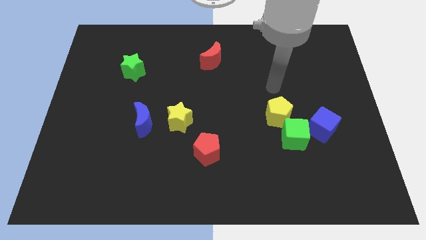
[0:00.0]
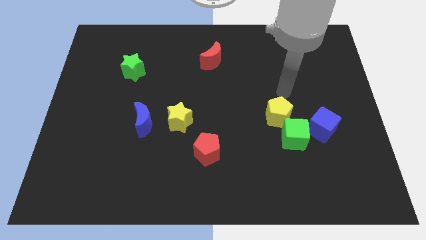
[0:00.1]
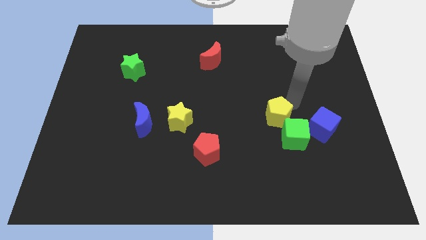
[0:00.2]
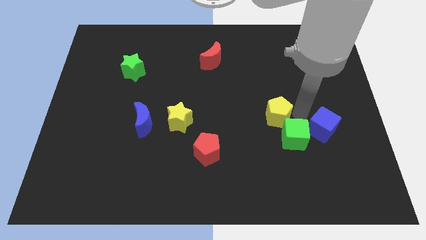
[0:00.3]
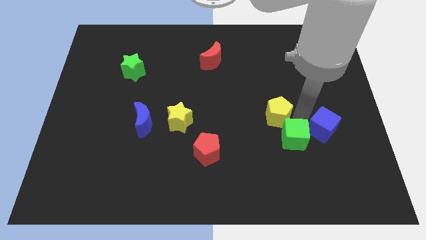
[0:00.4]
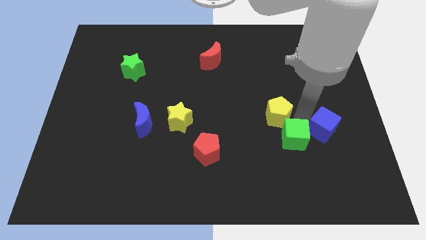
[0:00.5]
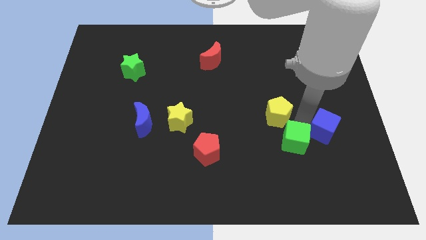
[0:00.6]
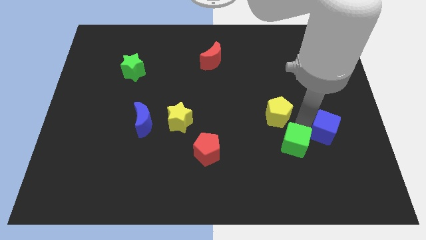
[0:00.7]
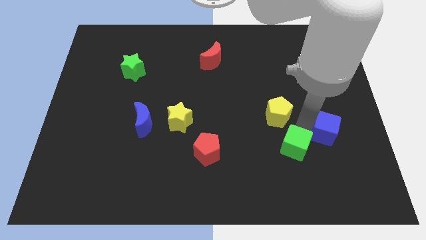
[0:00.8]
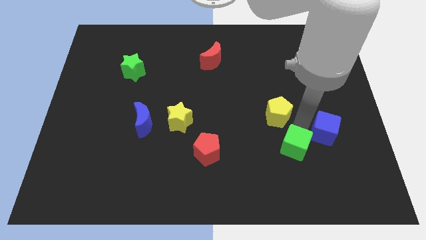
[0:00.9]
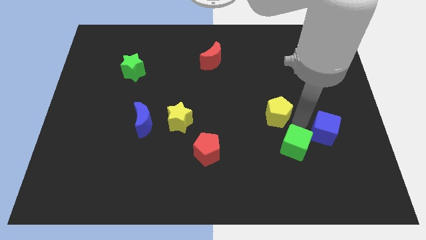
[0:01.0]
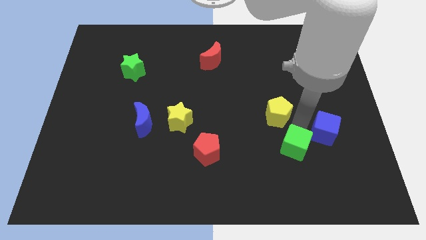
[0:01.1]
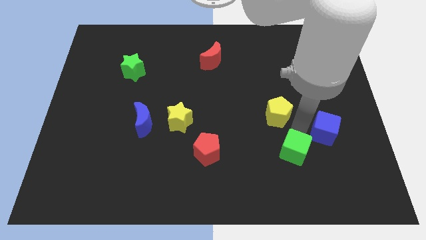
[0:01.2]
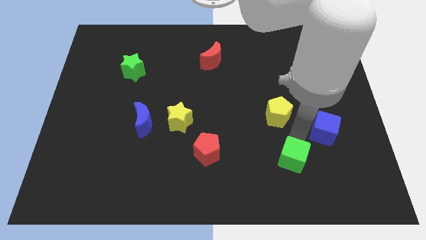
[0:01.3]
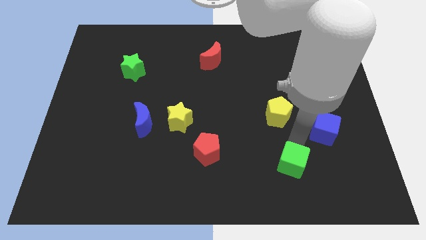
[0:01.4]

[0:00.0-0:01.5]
move the green cube away from the yellow pentagon and blue cube

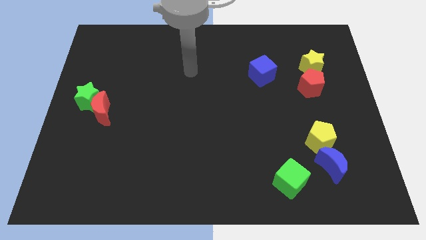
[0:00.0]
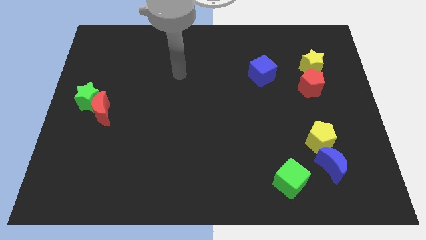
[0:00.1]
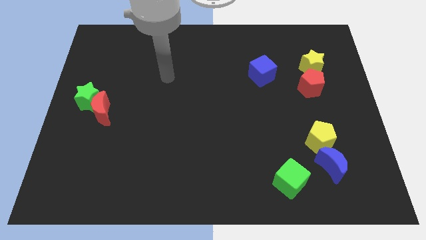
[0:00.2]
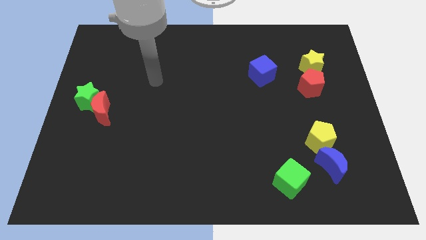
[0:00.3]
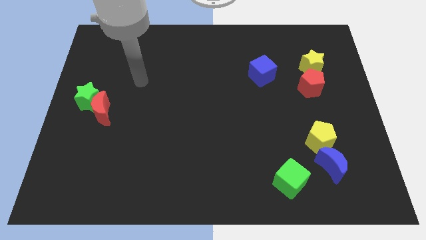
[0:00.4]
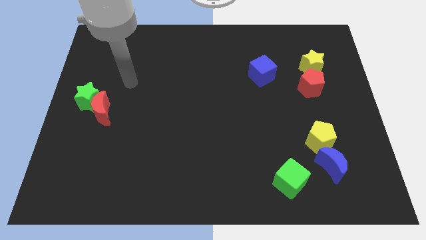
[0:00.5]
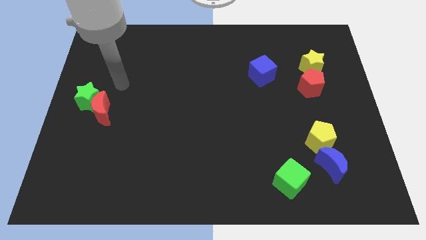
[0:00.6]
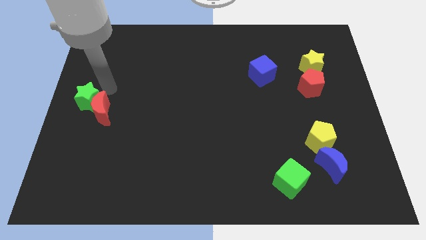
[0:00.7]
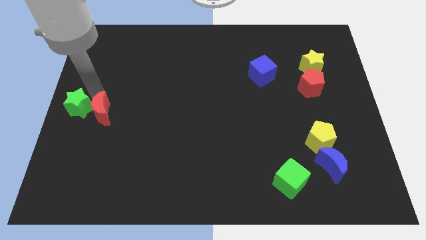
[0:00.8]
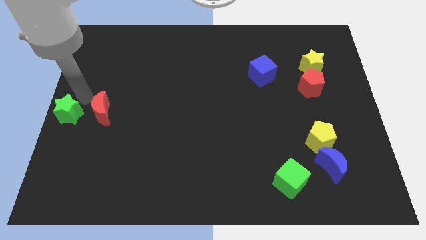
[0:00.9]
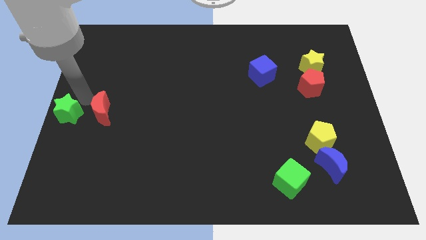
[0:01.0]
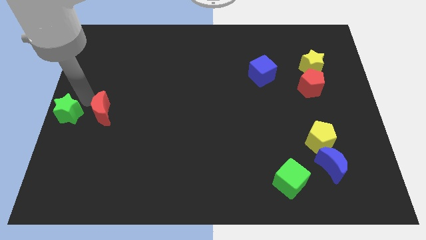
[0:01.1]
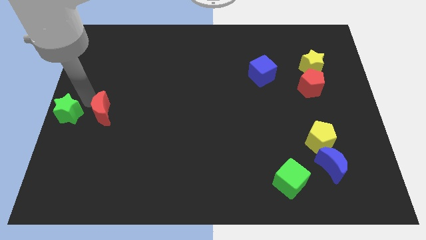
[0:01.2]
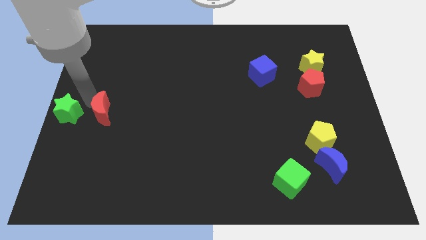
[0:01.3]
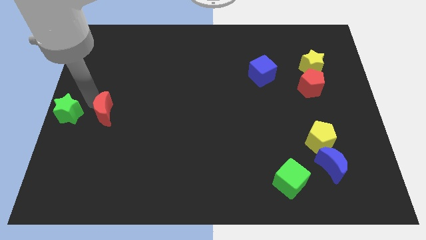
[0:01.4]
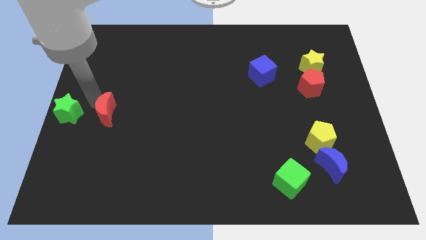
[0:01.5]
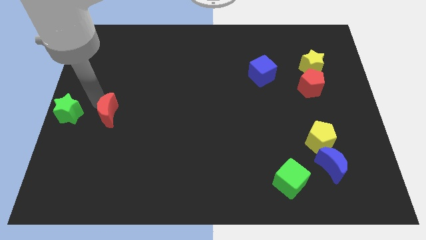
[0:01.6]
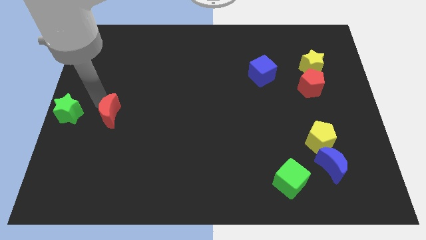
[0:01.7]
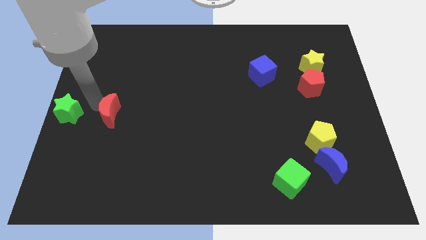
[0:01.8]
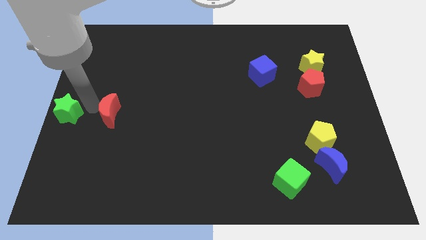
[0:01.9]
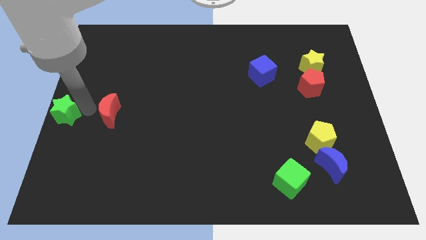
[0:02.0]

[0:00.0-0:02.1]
move the red moon away from the green star

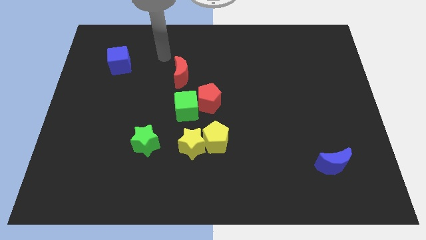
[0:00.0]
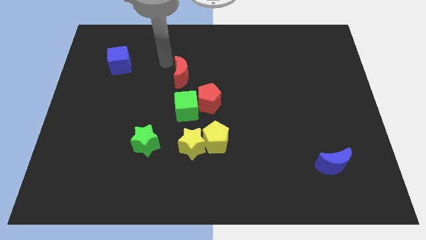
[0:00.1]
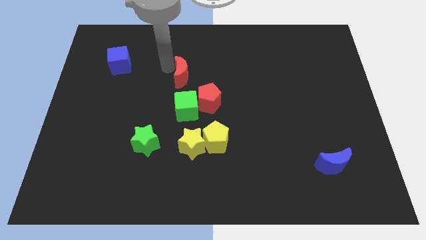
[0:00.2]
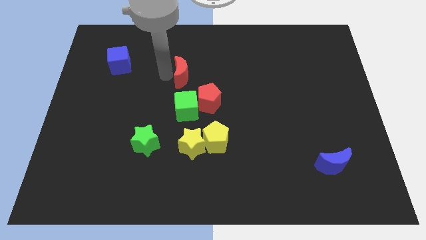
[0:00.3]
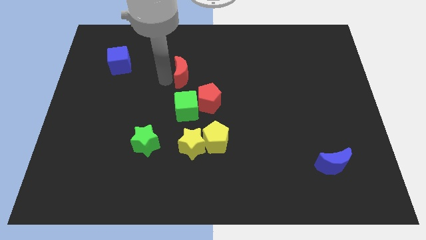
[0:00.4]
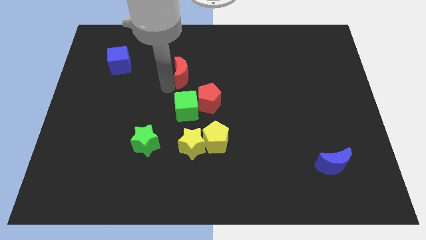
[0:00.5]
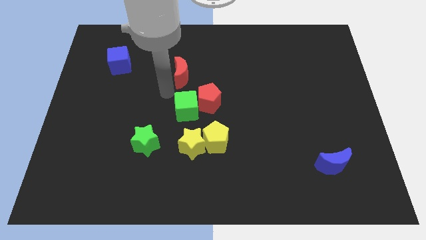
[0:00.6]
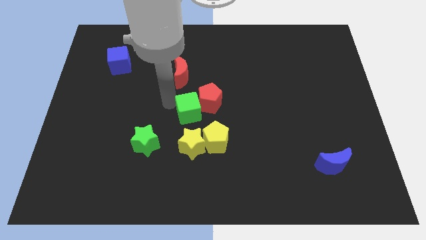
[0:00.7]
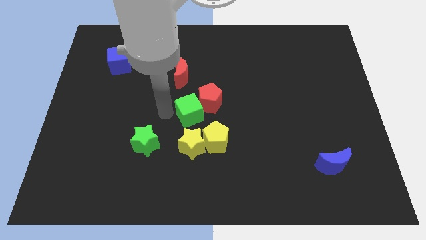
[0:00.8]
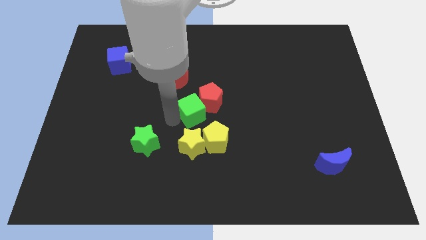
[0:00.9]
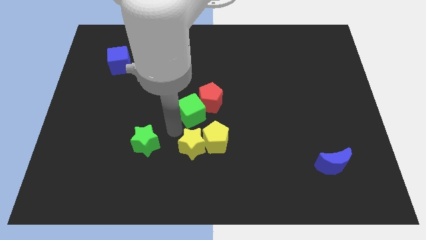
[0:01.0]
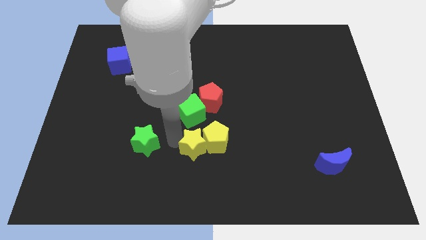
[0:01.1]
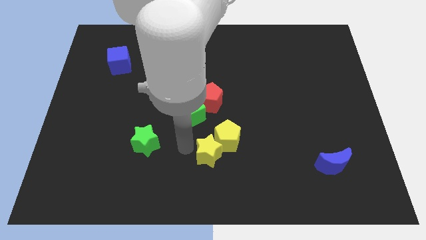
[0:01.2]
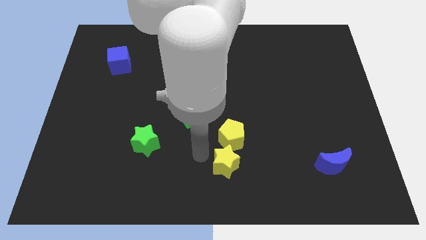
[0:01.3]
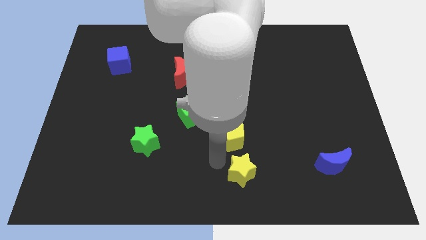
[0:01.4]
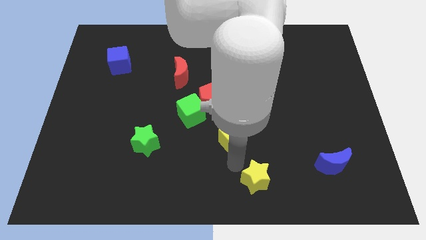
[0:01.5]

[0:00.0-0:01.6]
pull the yellow pentagon apart from the yellow star

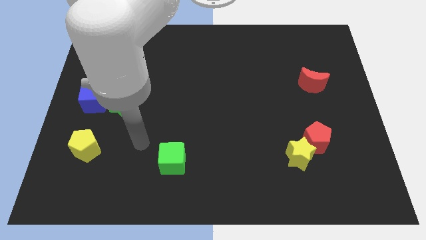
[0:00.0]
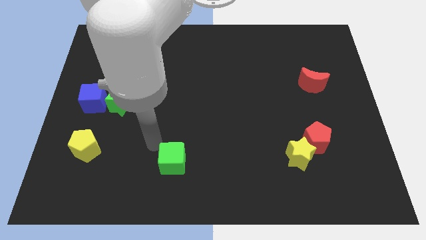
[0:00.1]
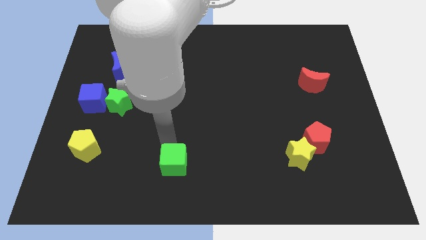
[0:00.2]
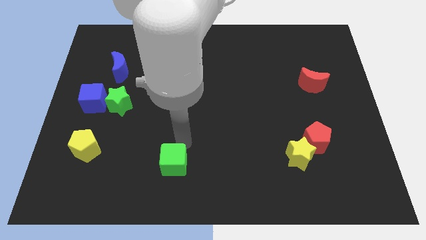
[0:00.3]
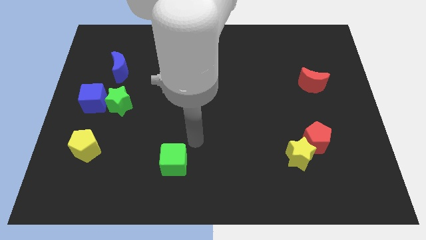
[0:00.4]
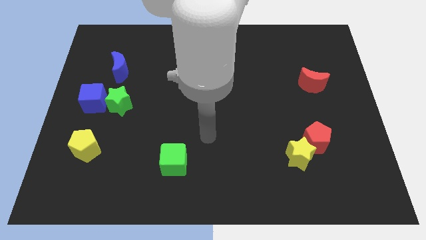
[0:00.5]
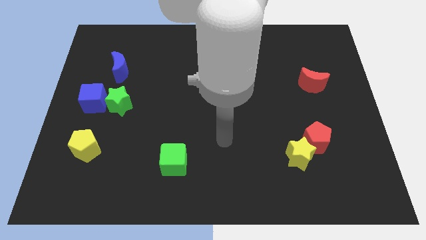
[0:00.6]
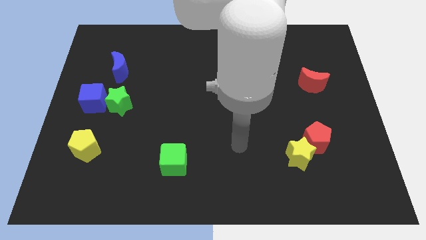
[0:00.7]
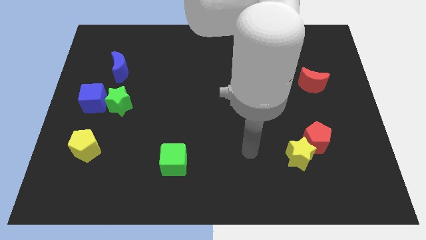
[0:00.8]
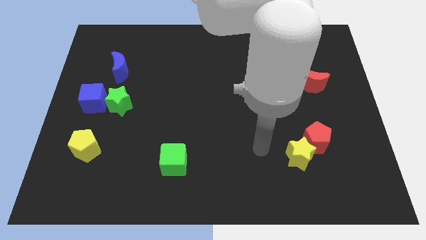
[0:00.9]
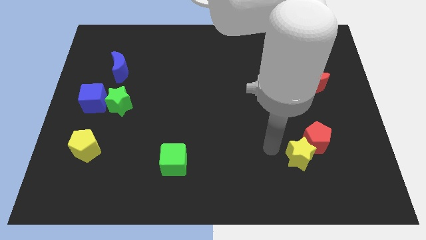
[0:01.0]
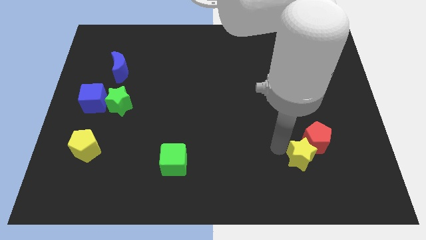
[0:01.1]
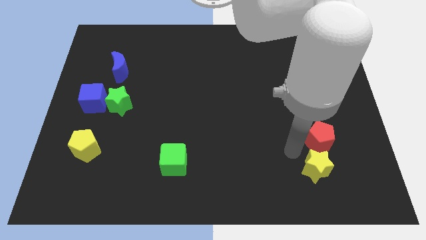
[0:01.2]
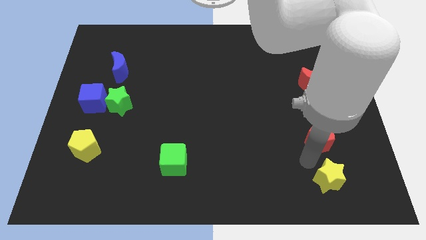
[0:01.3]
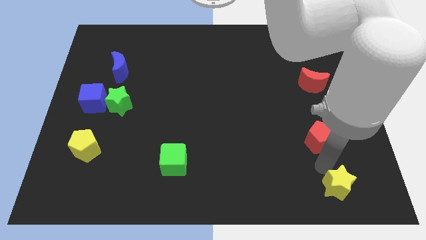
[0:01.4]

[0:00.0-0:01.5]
move the red pentagon away from the yellow star

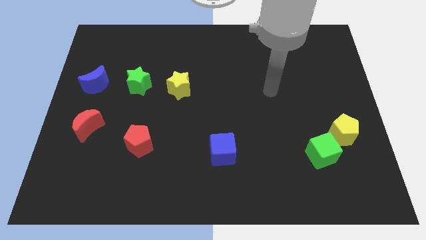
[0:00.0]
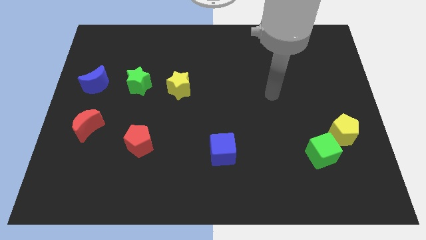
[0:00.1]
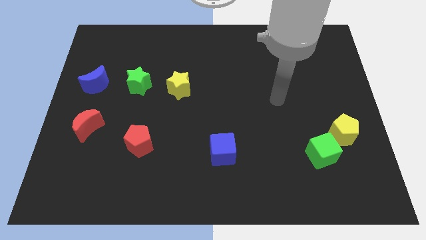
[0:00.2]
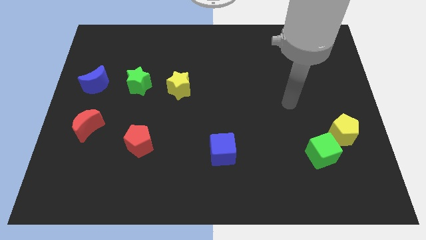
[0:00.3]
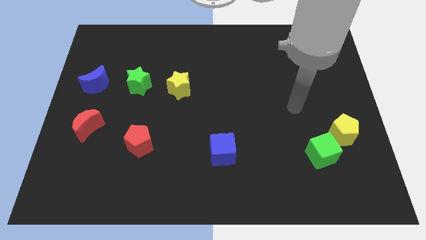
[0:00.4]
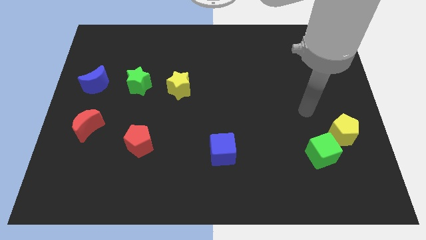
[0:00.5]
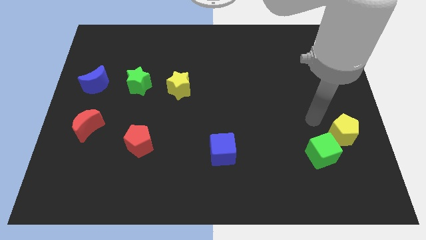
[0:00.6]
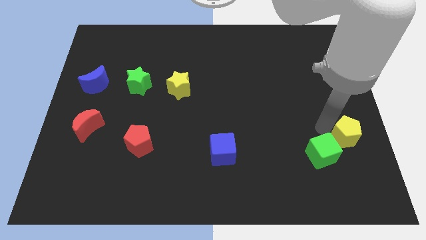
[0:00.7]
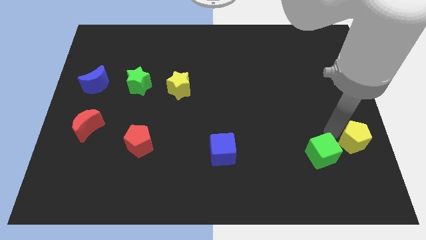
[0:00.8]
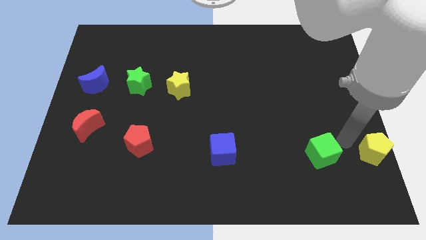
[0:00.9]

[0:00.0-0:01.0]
pull the green cube apart from the yellow pentagon

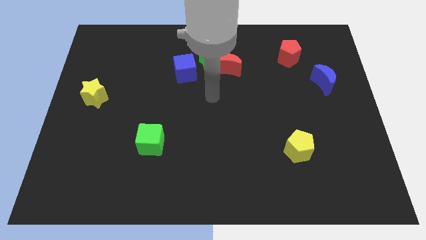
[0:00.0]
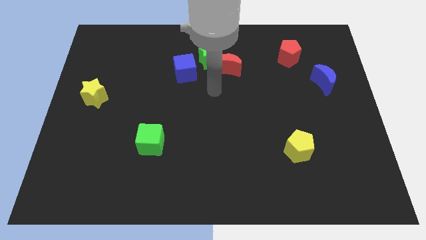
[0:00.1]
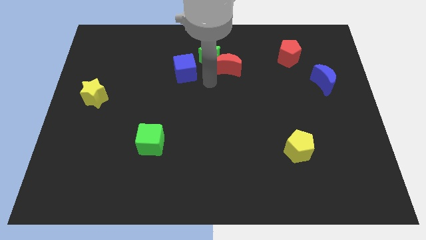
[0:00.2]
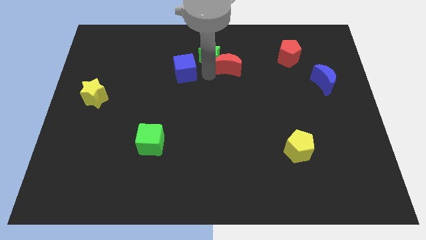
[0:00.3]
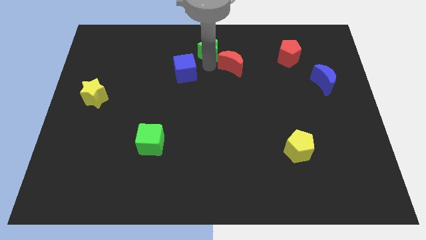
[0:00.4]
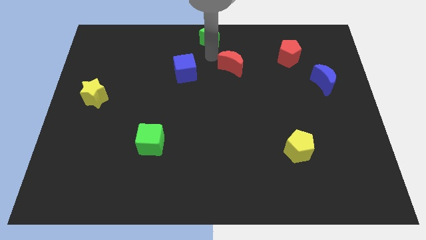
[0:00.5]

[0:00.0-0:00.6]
separate the red moon from the green star

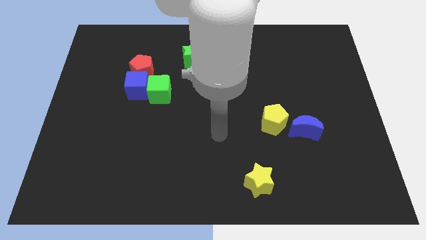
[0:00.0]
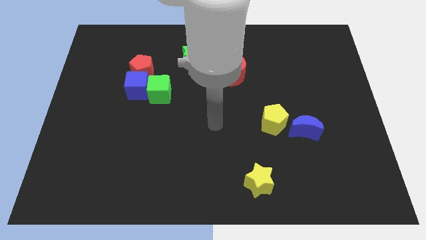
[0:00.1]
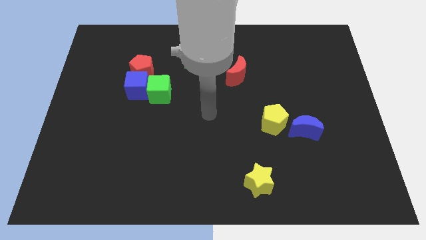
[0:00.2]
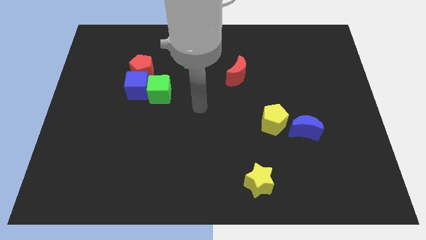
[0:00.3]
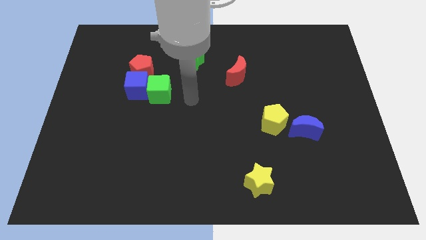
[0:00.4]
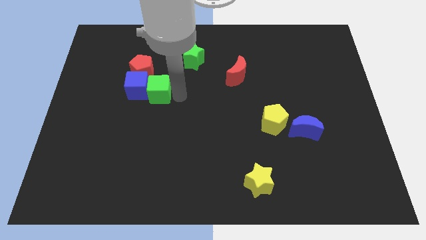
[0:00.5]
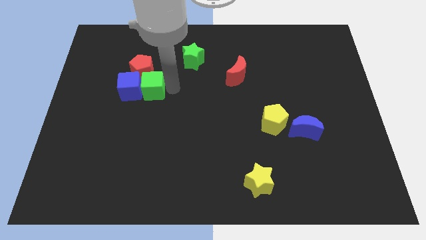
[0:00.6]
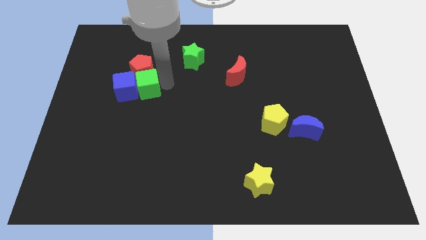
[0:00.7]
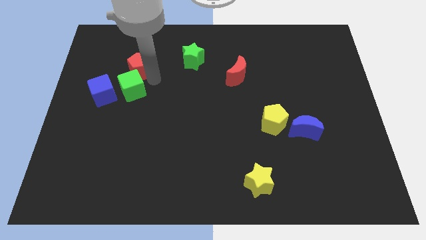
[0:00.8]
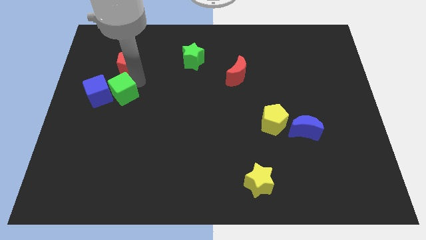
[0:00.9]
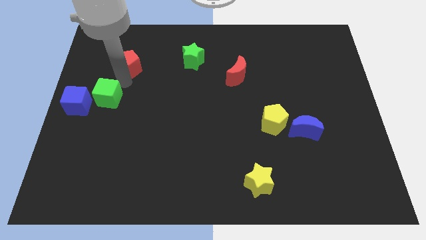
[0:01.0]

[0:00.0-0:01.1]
separate the blue cube from the green cube and red pentagon
